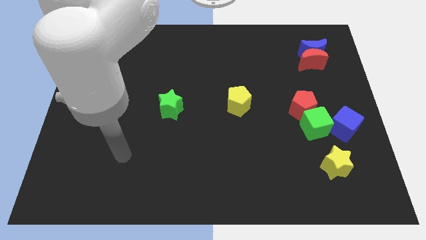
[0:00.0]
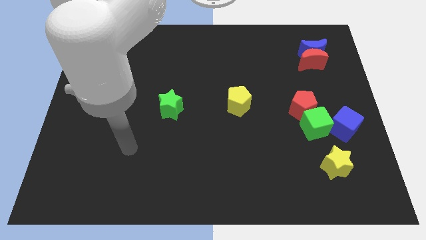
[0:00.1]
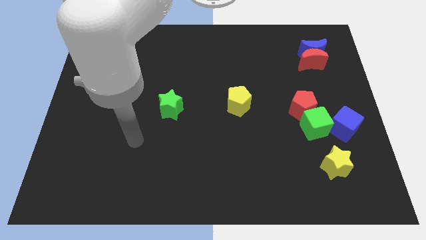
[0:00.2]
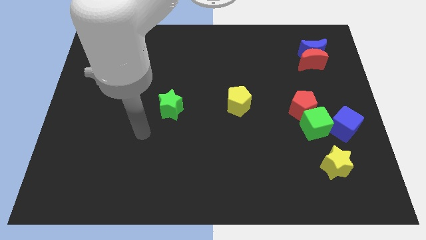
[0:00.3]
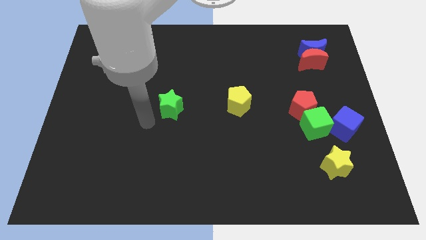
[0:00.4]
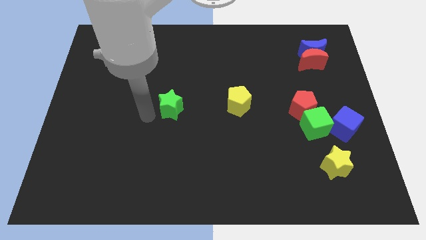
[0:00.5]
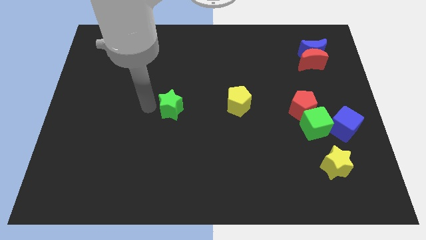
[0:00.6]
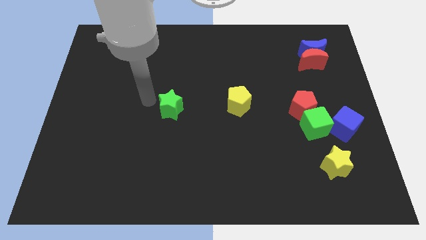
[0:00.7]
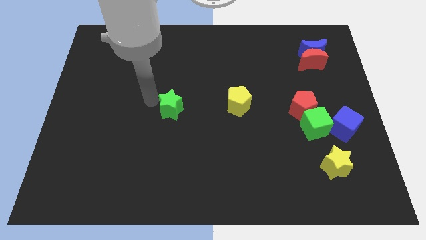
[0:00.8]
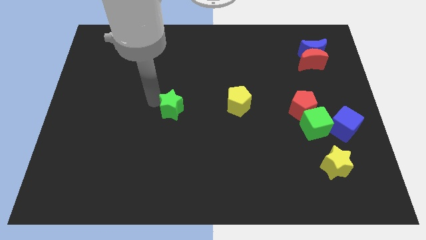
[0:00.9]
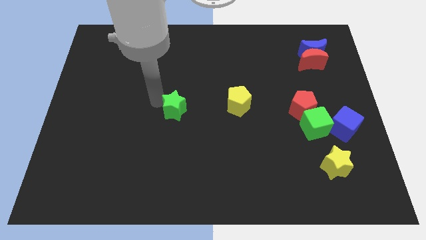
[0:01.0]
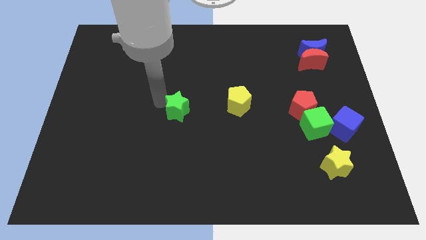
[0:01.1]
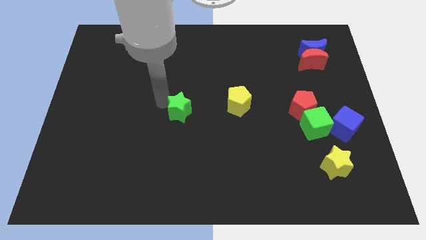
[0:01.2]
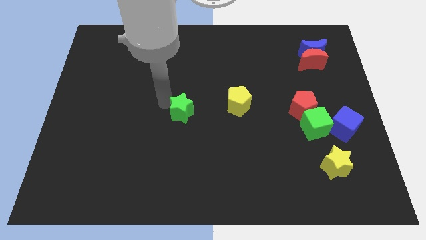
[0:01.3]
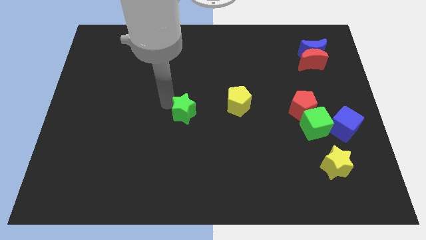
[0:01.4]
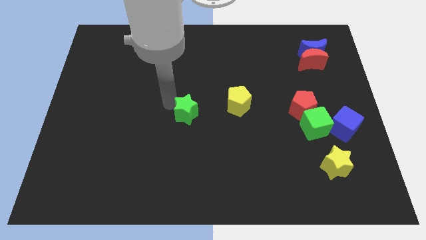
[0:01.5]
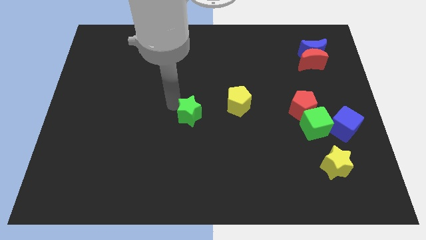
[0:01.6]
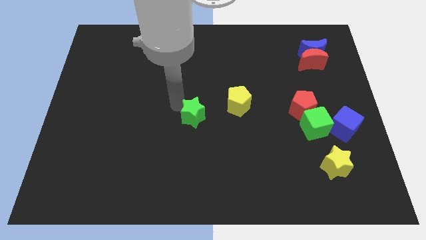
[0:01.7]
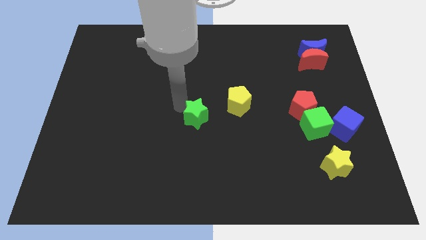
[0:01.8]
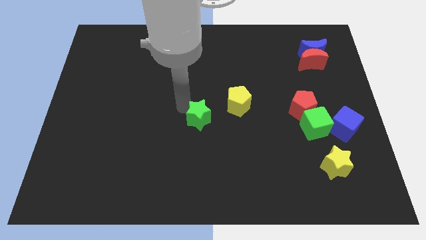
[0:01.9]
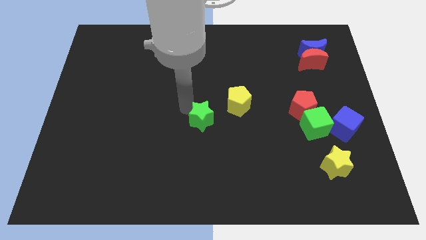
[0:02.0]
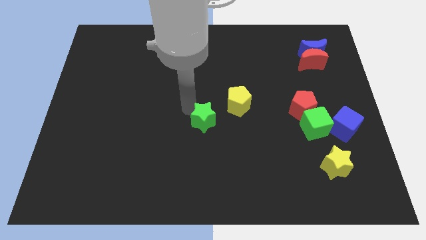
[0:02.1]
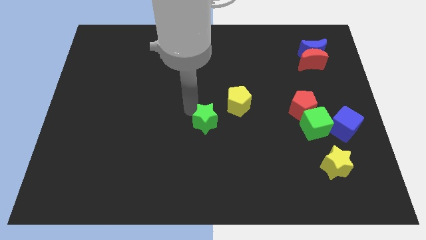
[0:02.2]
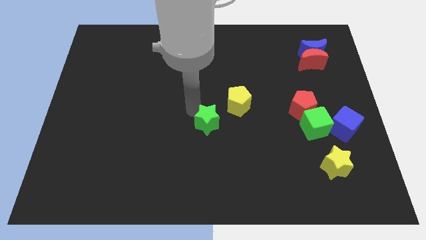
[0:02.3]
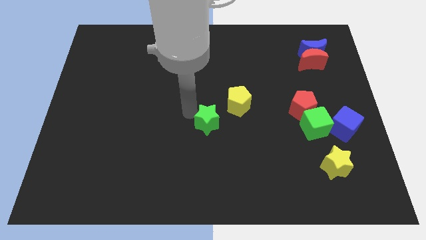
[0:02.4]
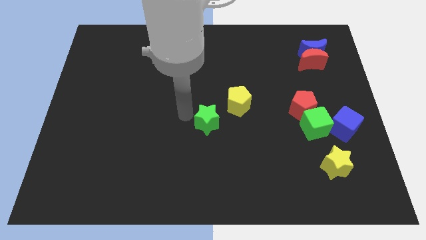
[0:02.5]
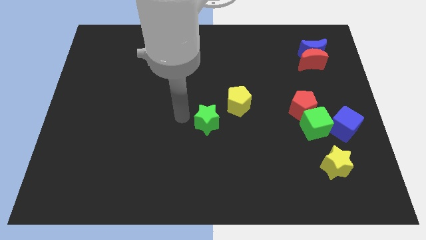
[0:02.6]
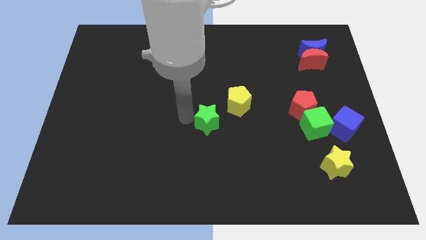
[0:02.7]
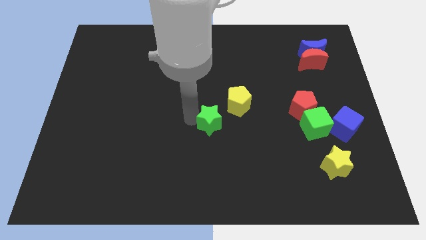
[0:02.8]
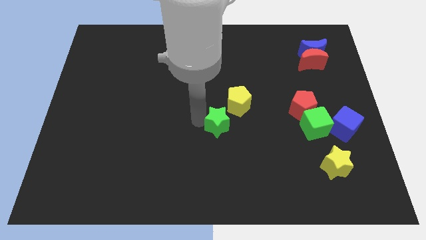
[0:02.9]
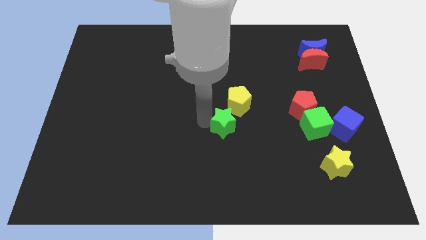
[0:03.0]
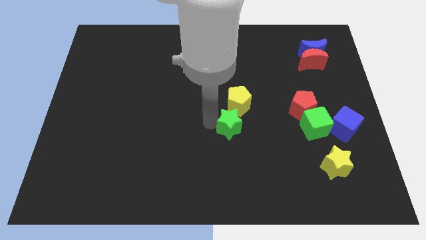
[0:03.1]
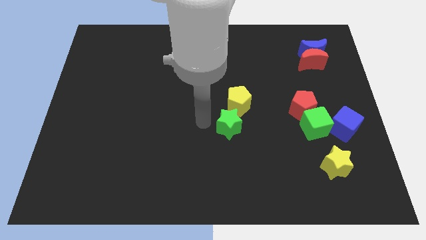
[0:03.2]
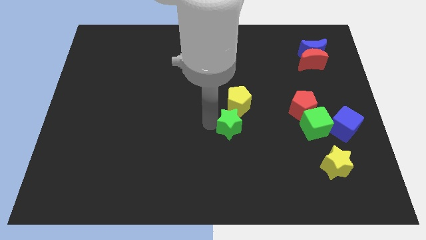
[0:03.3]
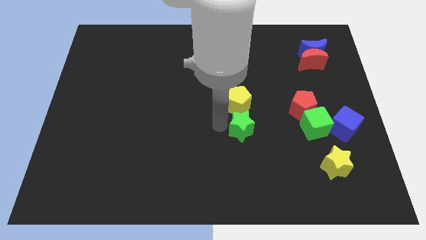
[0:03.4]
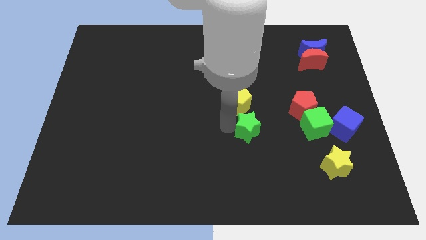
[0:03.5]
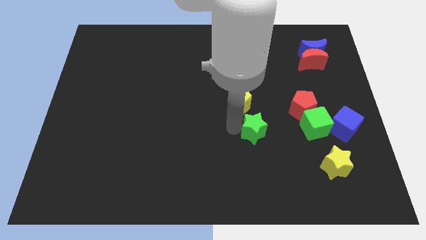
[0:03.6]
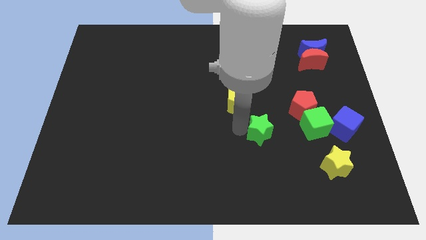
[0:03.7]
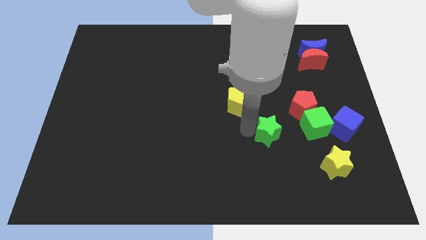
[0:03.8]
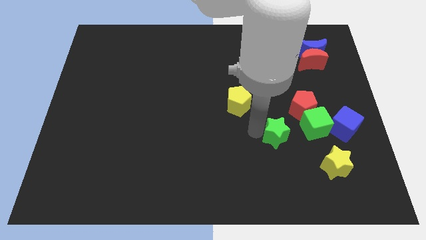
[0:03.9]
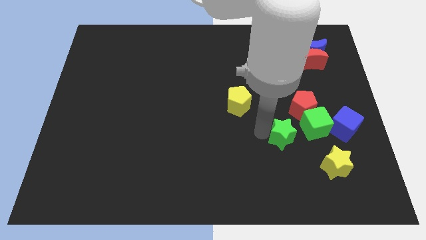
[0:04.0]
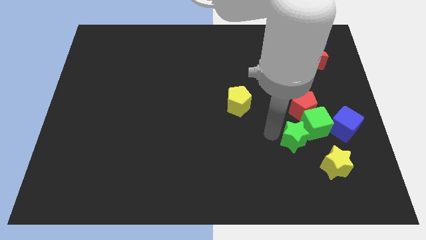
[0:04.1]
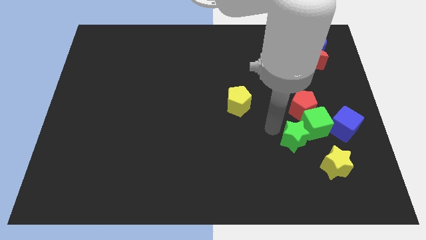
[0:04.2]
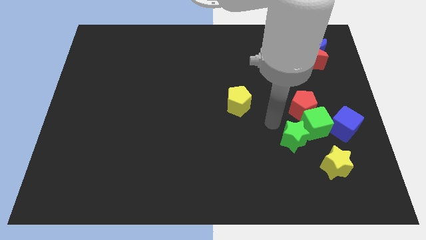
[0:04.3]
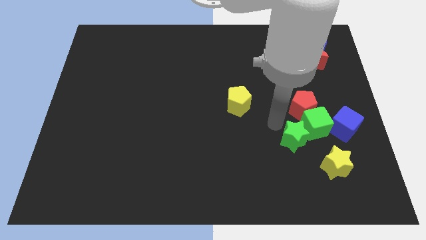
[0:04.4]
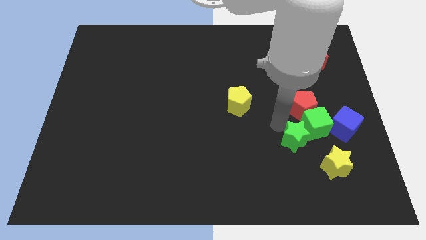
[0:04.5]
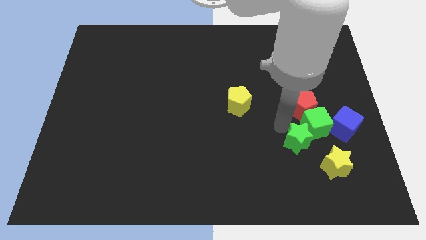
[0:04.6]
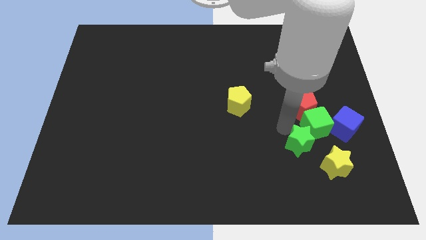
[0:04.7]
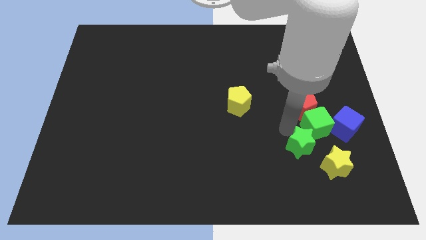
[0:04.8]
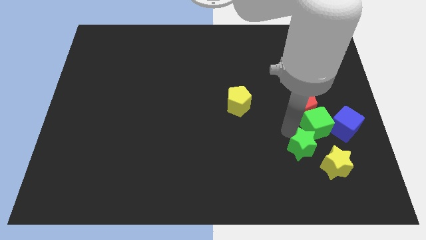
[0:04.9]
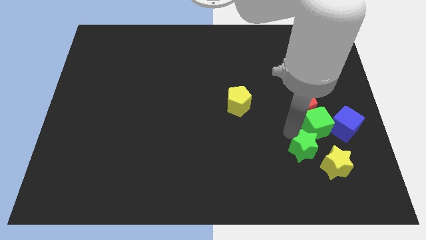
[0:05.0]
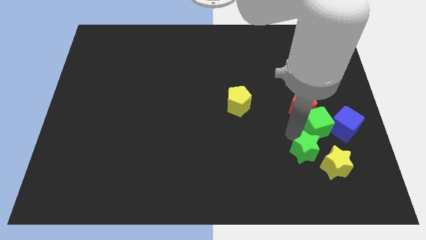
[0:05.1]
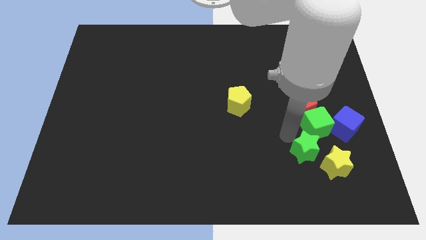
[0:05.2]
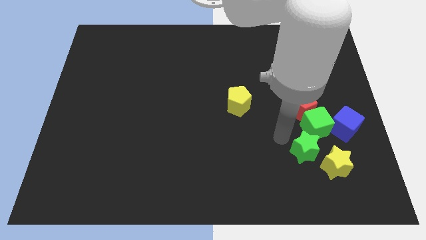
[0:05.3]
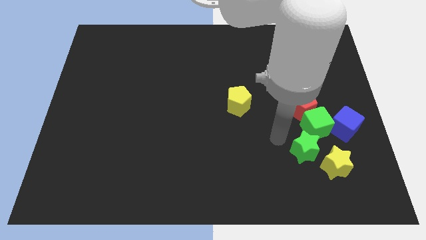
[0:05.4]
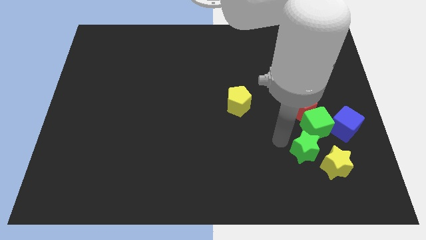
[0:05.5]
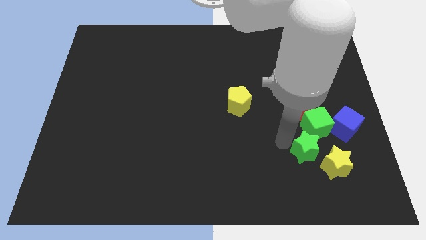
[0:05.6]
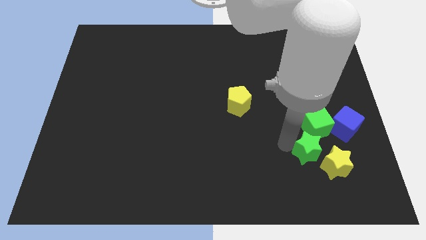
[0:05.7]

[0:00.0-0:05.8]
push the green star close to the yellow star

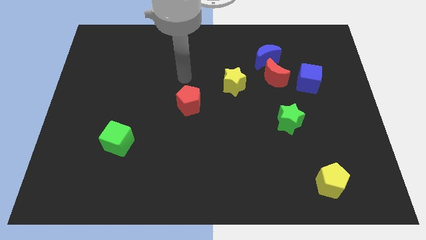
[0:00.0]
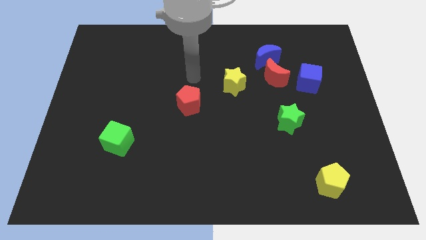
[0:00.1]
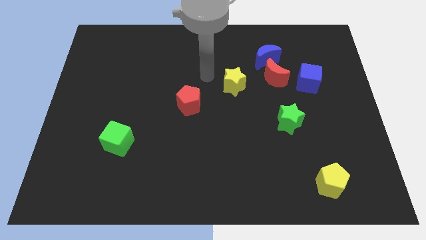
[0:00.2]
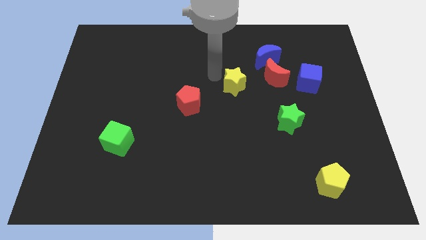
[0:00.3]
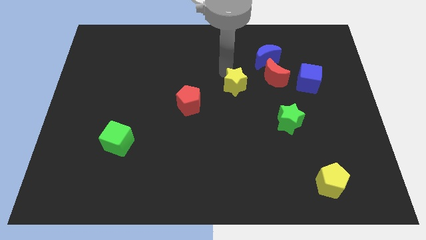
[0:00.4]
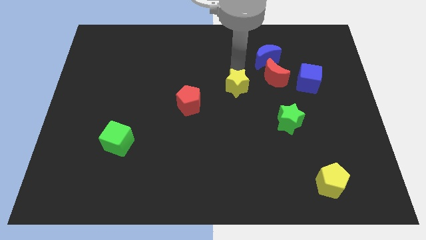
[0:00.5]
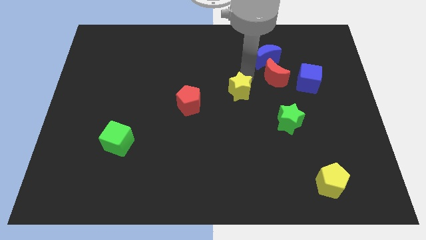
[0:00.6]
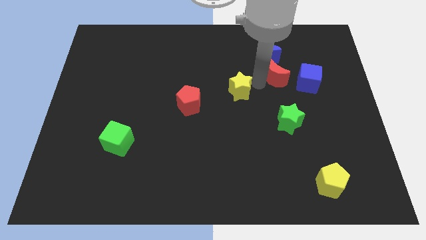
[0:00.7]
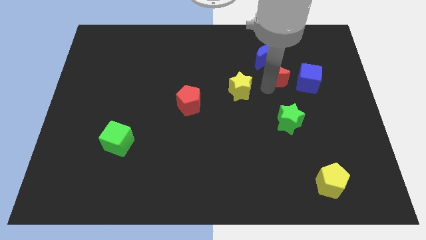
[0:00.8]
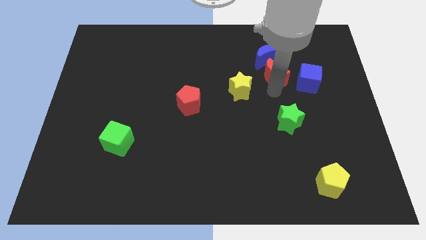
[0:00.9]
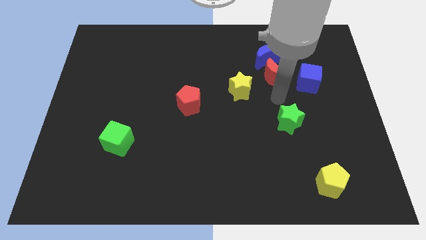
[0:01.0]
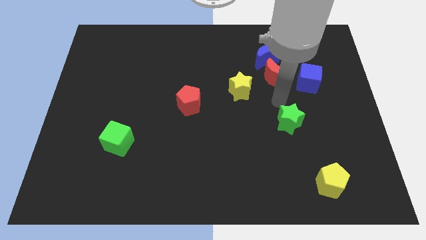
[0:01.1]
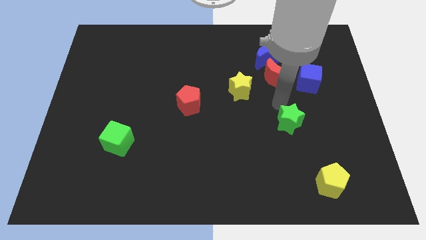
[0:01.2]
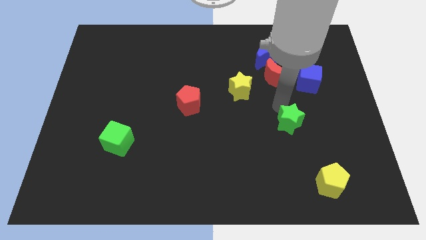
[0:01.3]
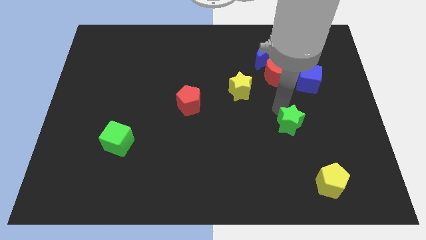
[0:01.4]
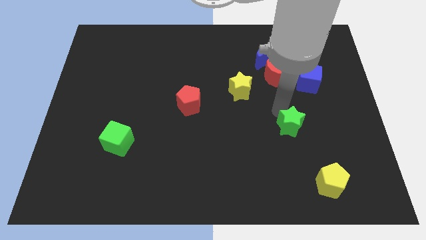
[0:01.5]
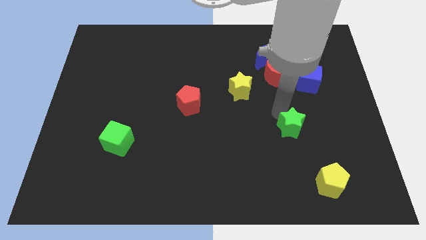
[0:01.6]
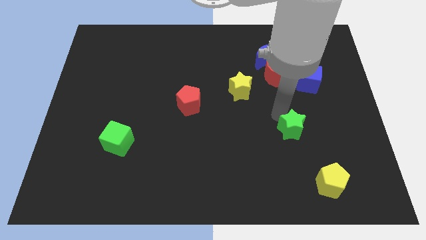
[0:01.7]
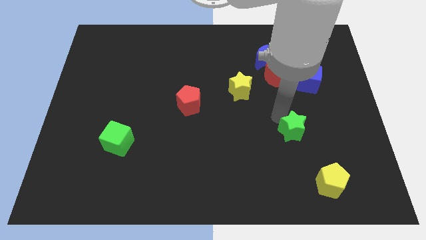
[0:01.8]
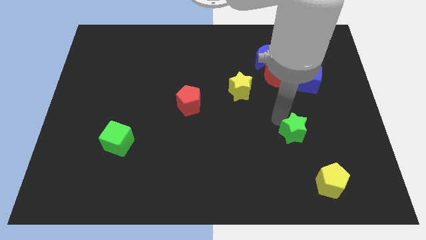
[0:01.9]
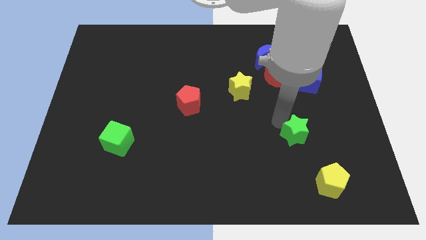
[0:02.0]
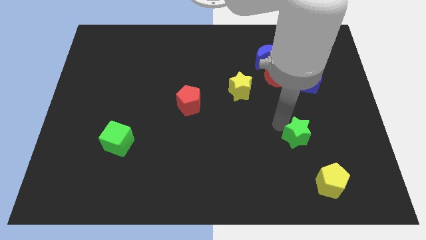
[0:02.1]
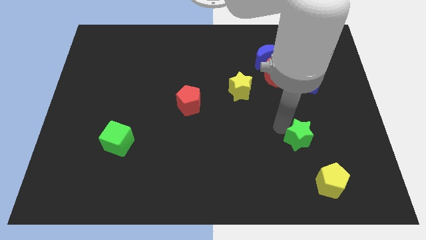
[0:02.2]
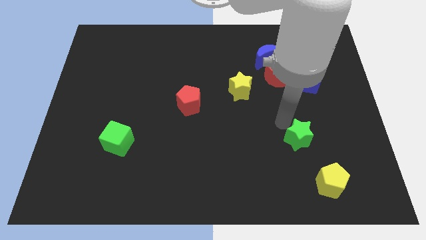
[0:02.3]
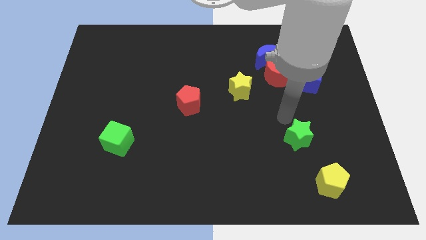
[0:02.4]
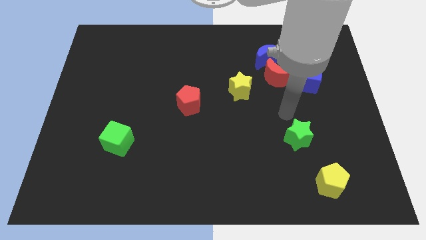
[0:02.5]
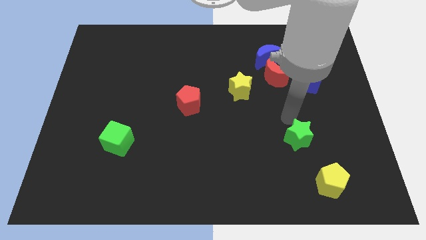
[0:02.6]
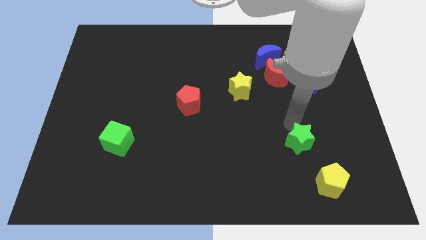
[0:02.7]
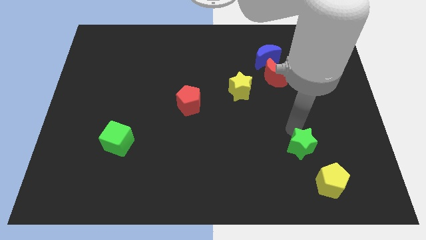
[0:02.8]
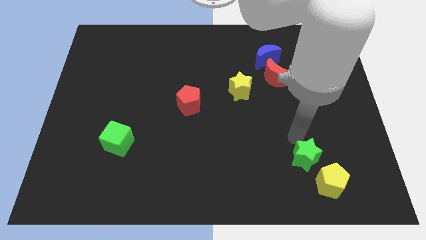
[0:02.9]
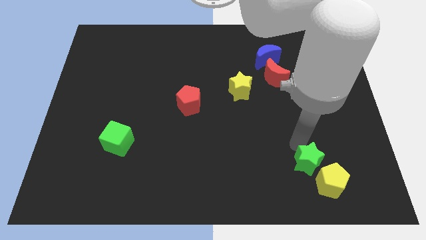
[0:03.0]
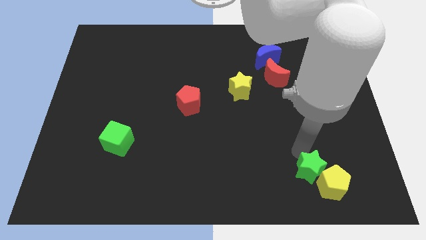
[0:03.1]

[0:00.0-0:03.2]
put the green star next to the yellow pentagon
